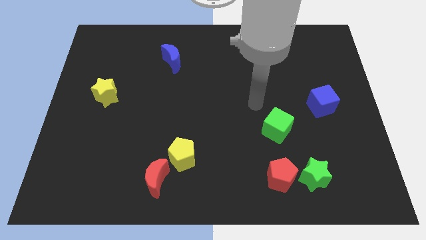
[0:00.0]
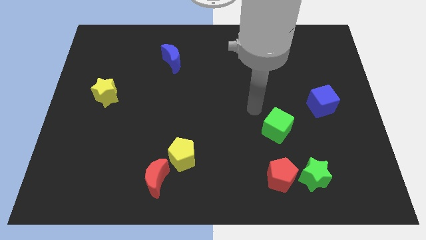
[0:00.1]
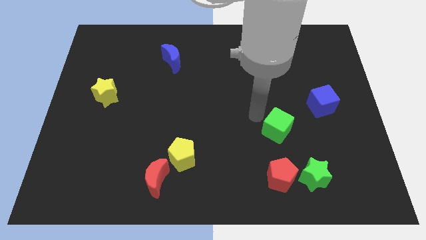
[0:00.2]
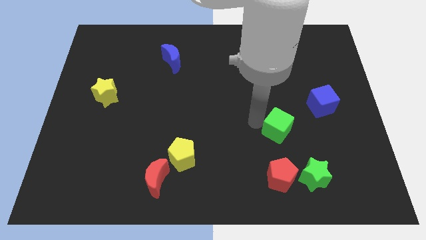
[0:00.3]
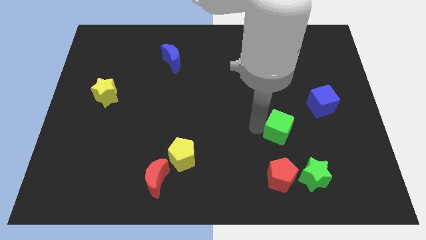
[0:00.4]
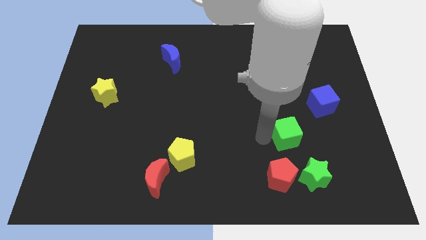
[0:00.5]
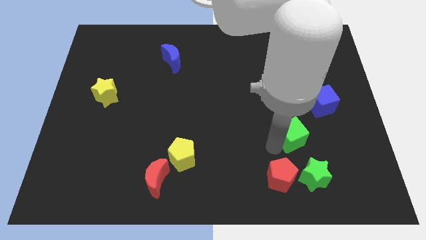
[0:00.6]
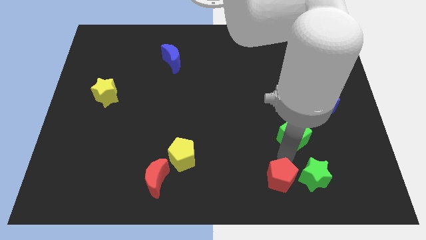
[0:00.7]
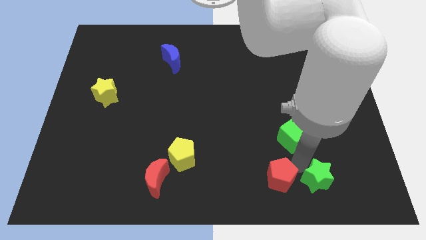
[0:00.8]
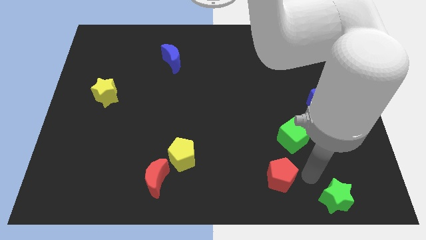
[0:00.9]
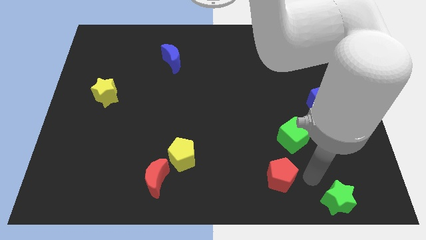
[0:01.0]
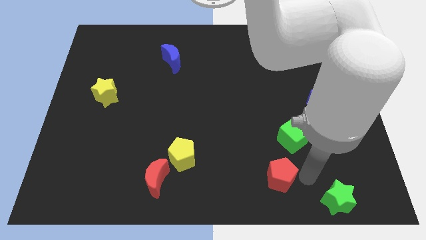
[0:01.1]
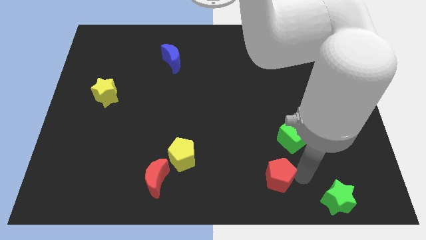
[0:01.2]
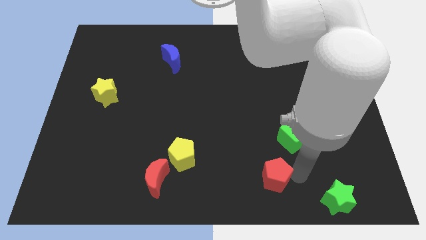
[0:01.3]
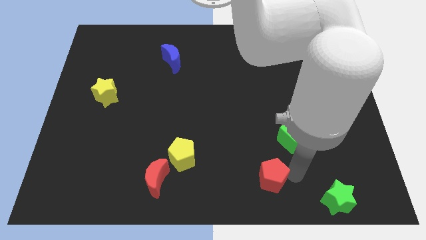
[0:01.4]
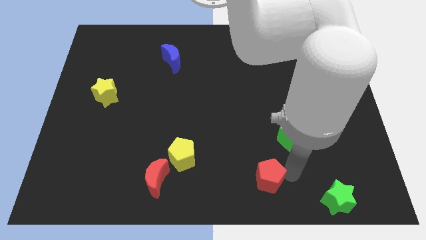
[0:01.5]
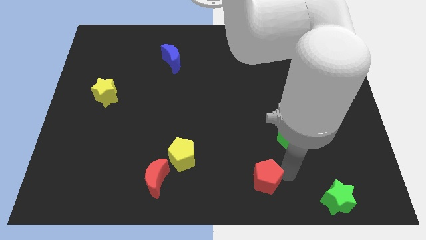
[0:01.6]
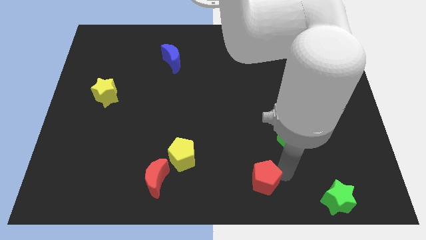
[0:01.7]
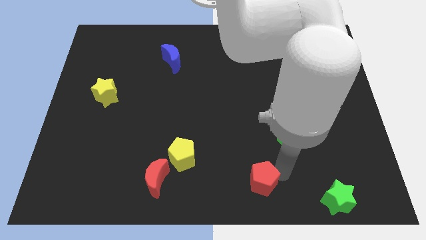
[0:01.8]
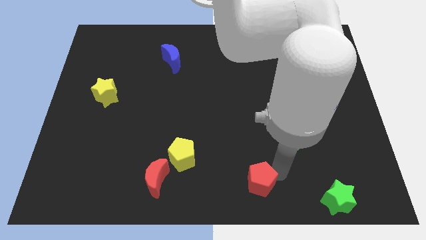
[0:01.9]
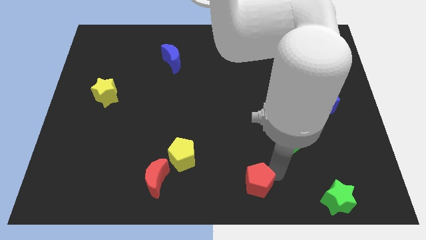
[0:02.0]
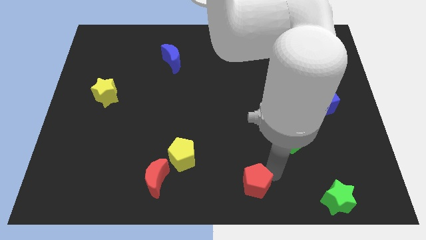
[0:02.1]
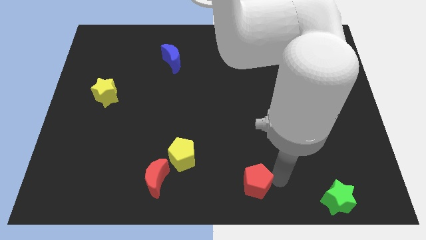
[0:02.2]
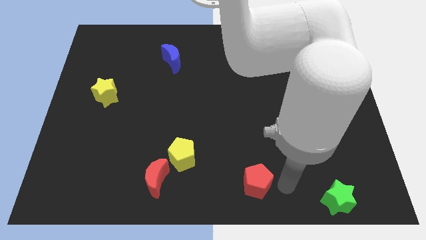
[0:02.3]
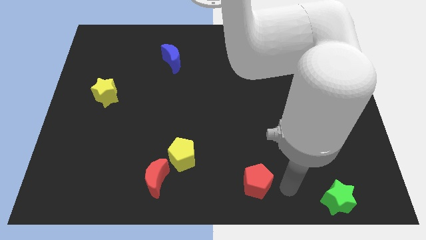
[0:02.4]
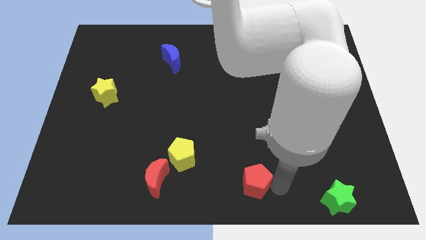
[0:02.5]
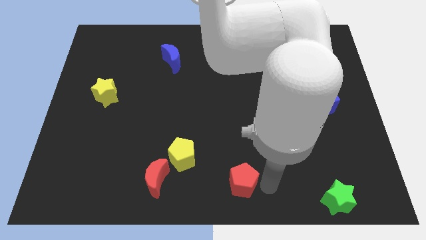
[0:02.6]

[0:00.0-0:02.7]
slide the red pentagon to the left a little

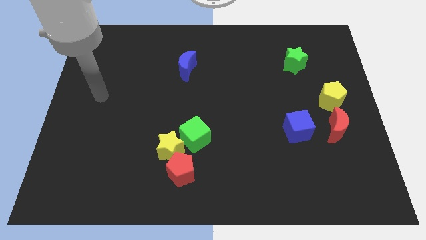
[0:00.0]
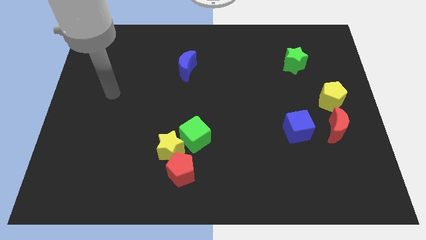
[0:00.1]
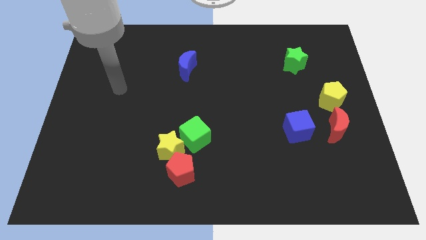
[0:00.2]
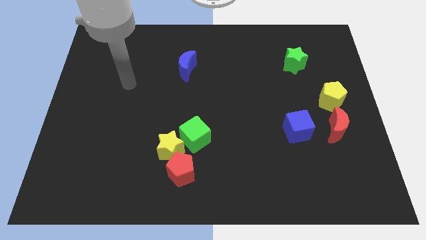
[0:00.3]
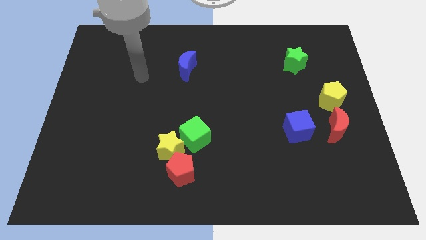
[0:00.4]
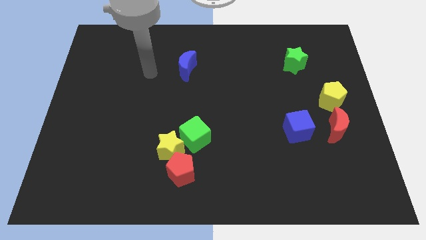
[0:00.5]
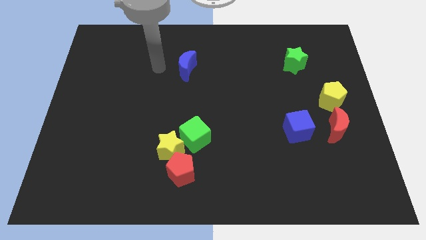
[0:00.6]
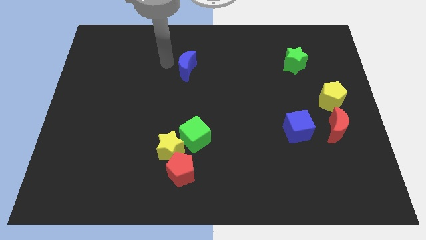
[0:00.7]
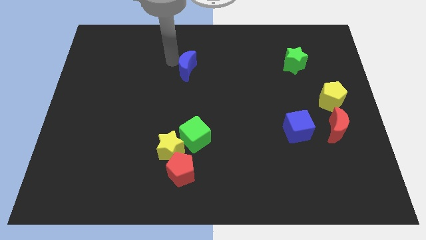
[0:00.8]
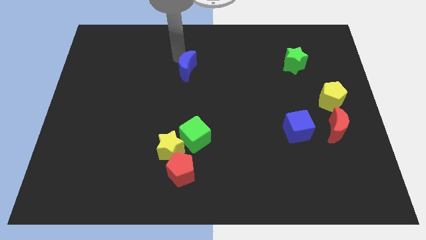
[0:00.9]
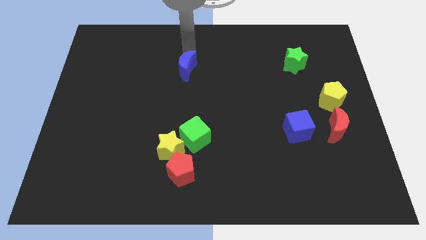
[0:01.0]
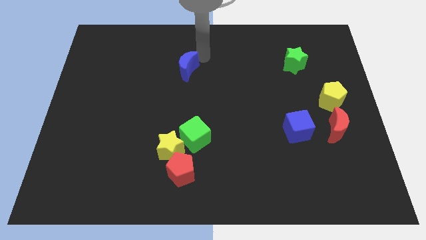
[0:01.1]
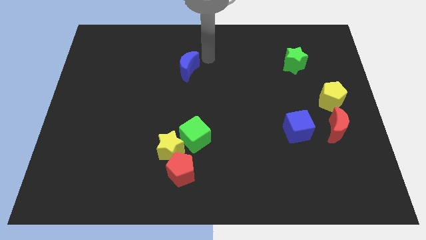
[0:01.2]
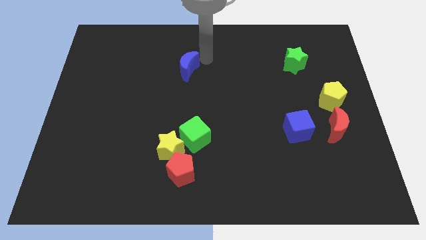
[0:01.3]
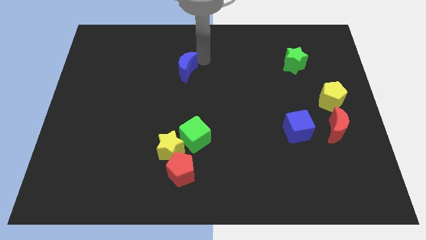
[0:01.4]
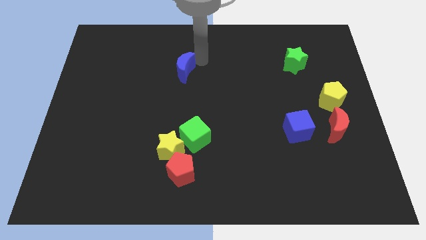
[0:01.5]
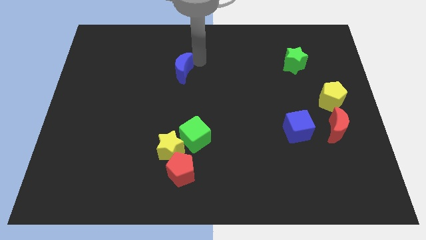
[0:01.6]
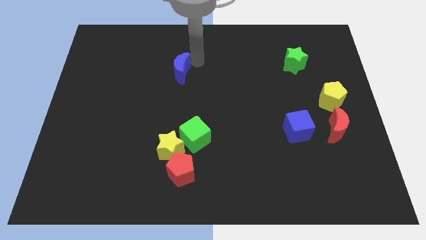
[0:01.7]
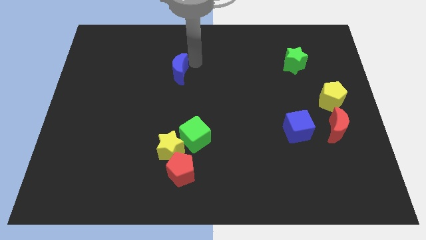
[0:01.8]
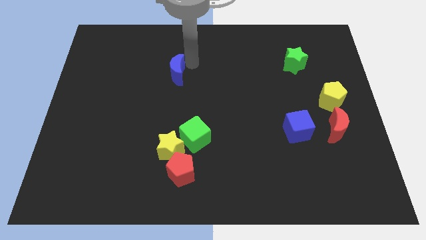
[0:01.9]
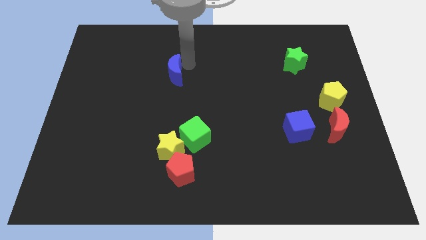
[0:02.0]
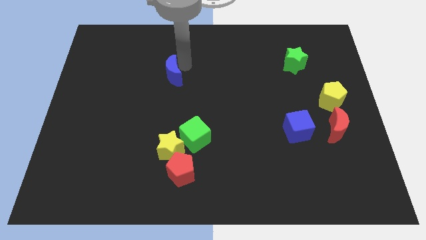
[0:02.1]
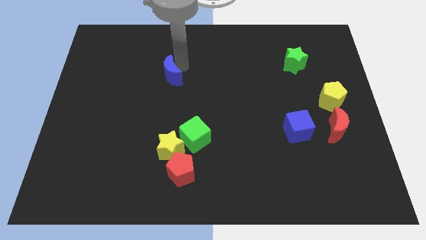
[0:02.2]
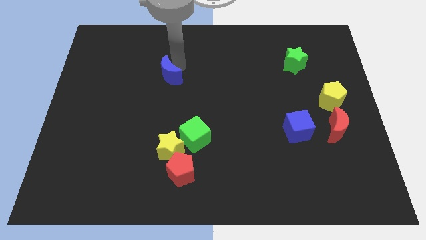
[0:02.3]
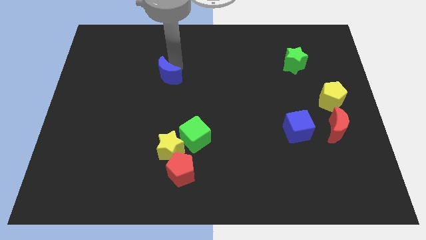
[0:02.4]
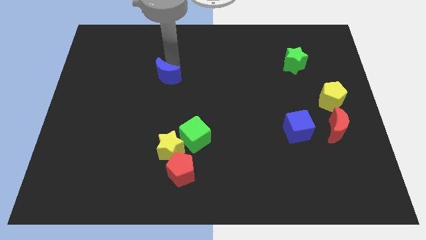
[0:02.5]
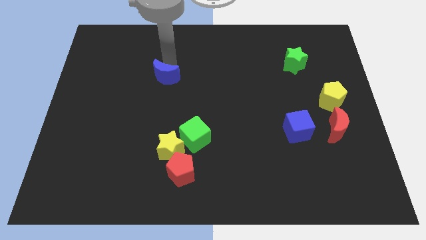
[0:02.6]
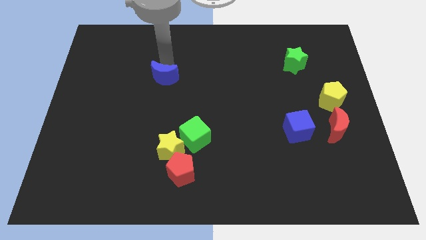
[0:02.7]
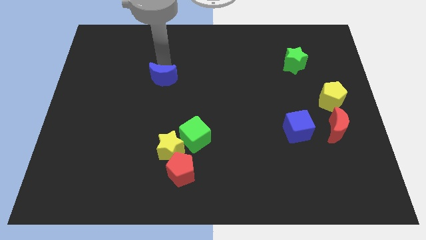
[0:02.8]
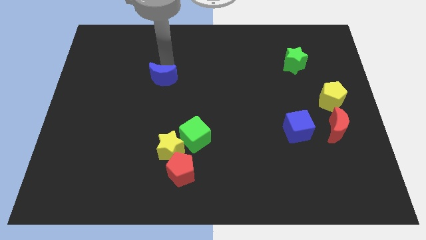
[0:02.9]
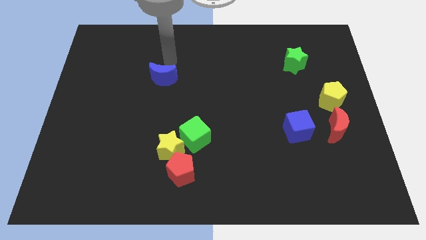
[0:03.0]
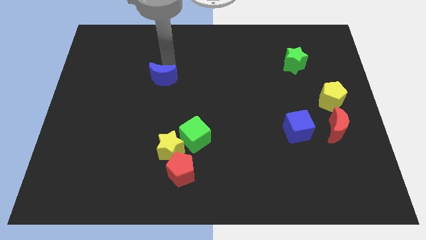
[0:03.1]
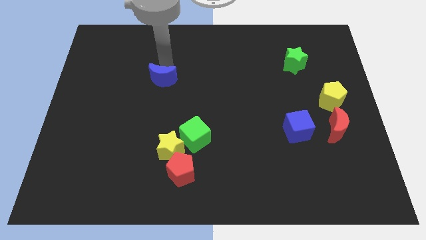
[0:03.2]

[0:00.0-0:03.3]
slide the blue moon down and left diagonally slightly

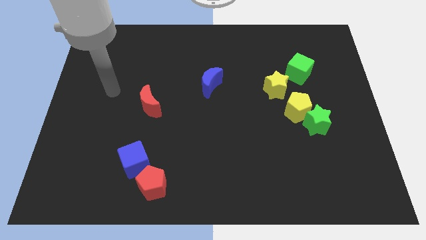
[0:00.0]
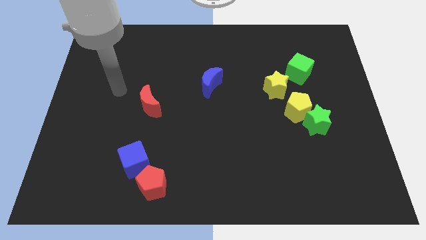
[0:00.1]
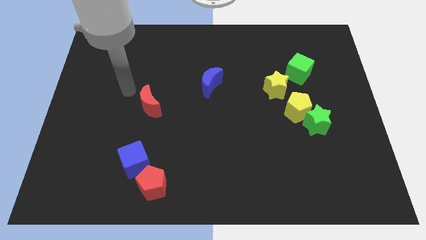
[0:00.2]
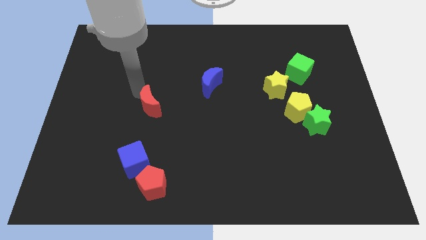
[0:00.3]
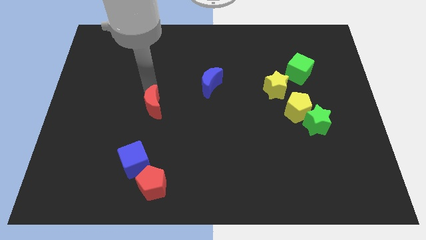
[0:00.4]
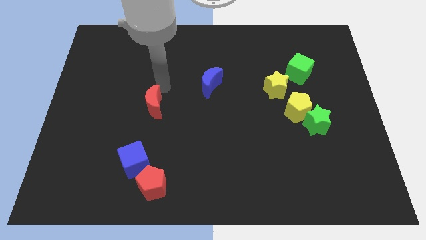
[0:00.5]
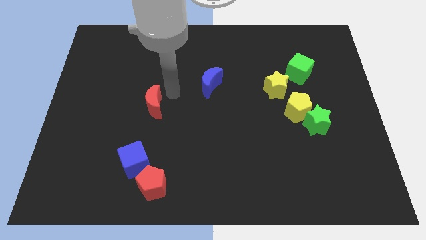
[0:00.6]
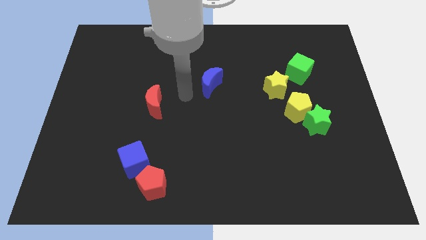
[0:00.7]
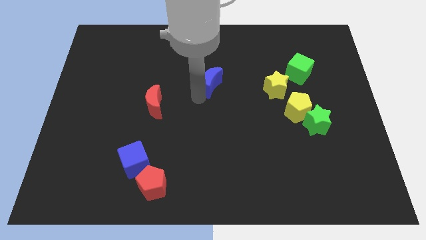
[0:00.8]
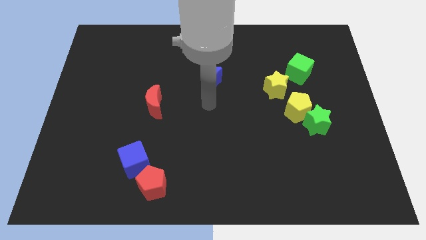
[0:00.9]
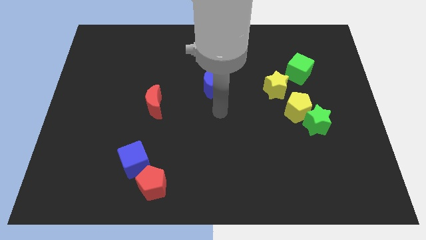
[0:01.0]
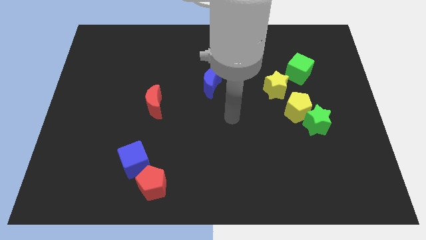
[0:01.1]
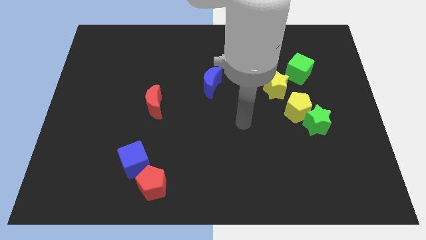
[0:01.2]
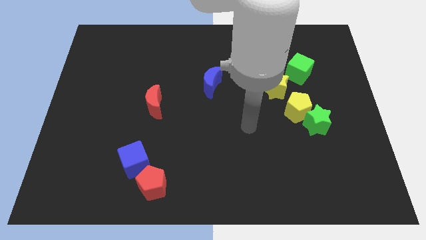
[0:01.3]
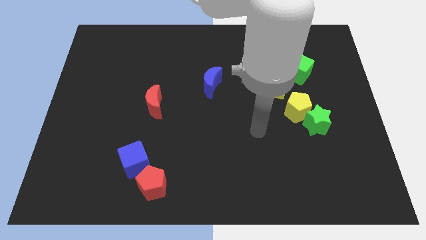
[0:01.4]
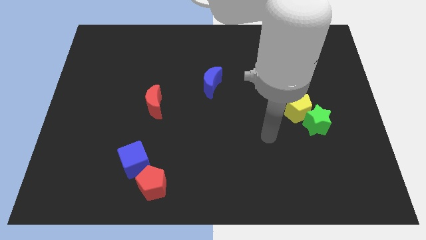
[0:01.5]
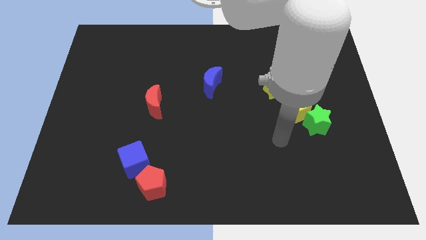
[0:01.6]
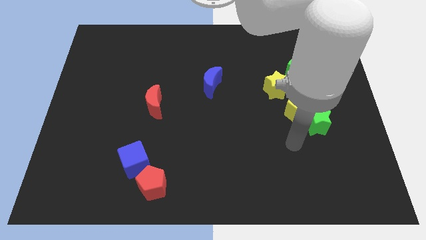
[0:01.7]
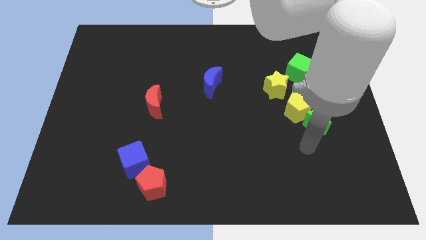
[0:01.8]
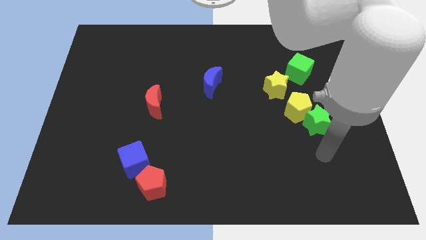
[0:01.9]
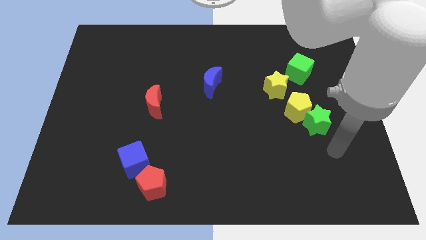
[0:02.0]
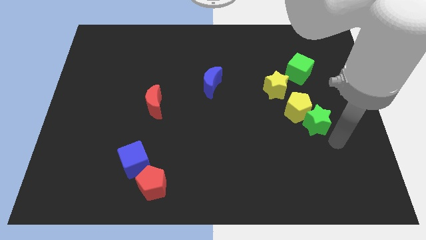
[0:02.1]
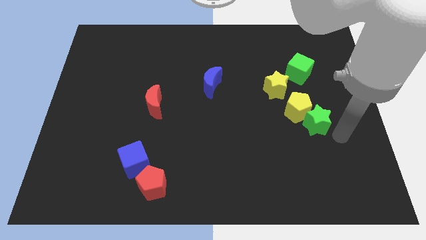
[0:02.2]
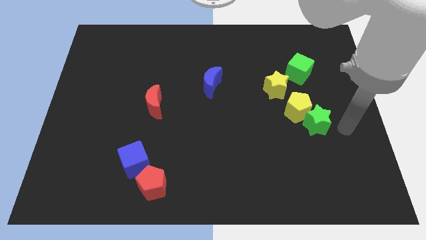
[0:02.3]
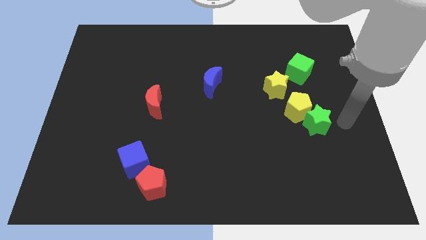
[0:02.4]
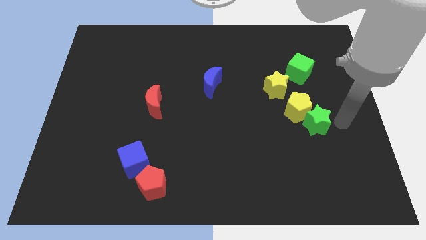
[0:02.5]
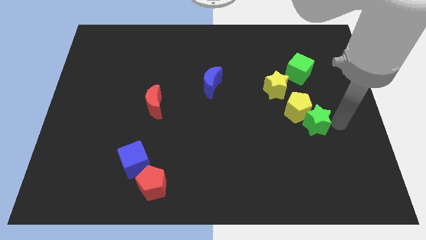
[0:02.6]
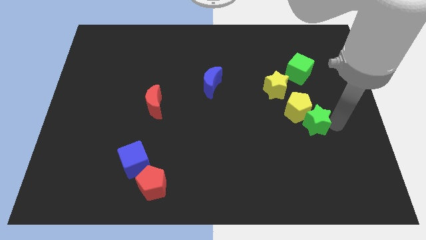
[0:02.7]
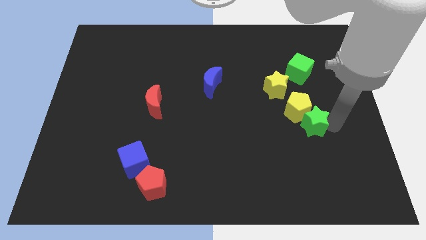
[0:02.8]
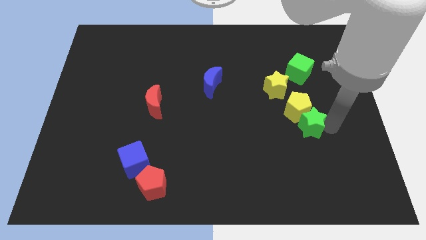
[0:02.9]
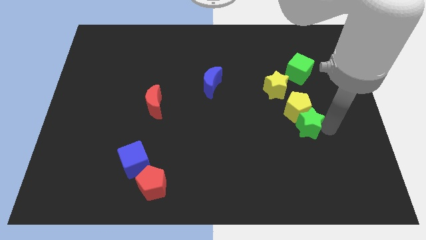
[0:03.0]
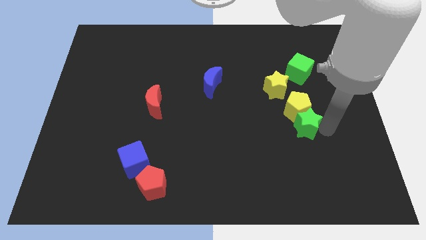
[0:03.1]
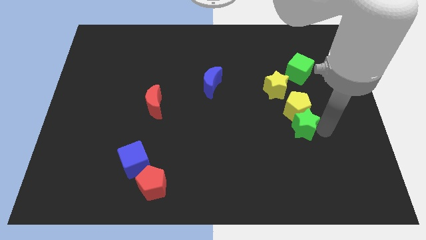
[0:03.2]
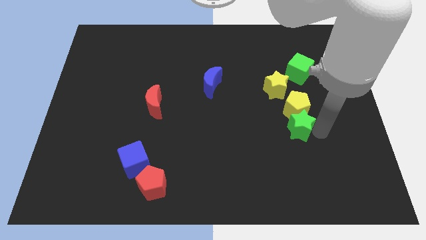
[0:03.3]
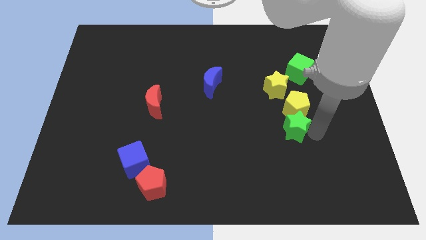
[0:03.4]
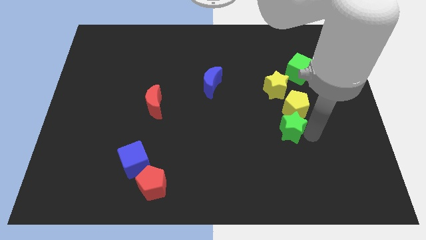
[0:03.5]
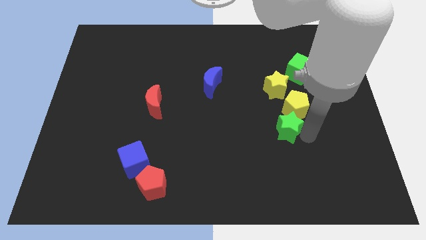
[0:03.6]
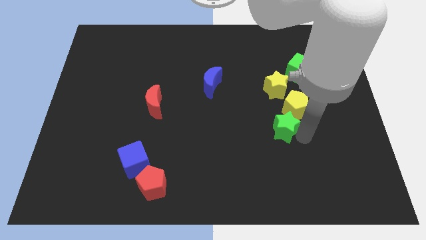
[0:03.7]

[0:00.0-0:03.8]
slide the green star to the left a bit
